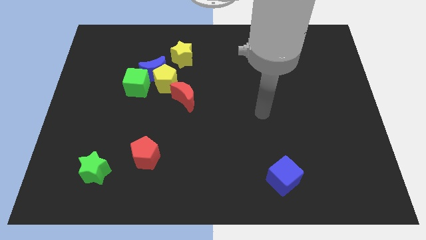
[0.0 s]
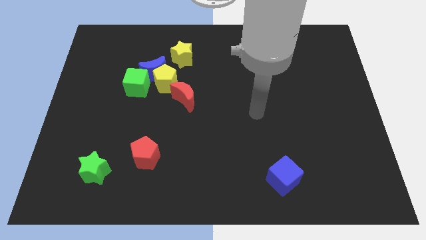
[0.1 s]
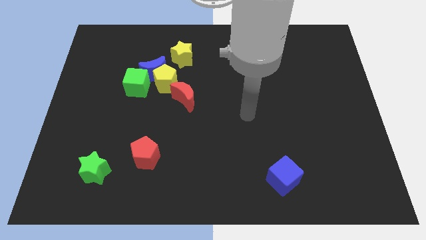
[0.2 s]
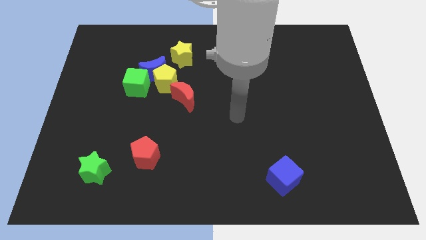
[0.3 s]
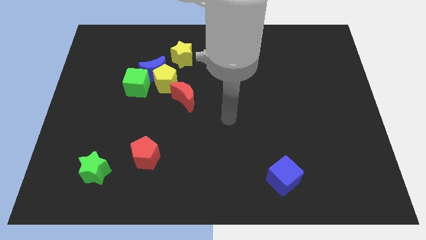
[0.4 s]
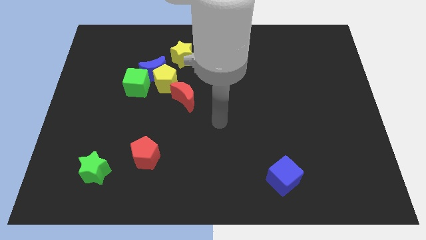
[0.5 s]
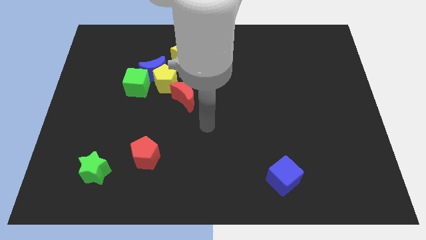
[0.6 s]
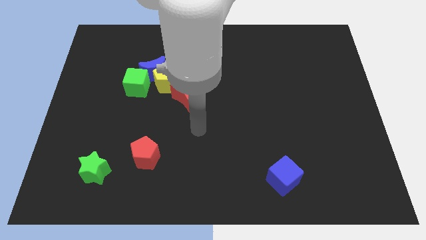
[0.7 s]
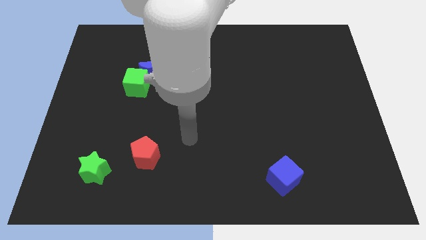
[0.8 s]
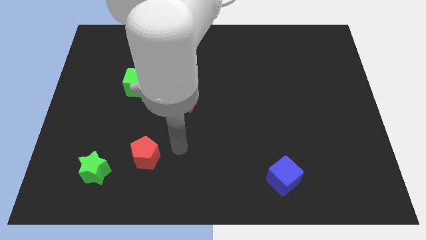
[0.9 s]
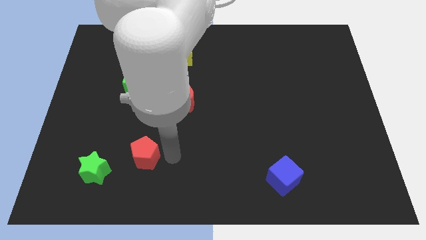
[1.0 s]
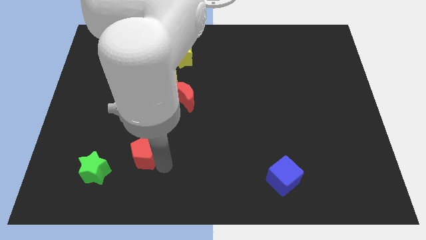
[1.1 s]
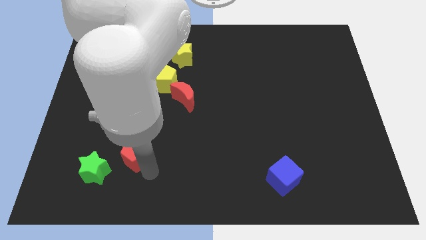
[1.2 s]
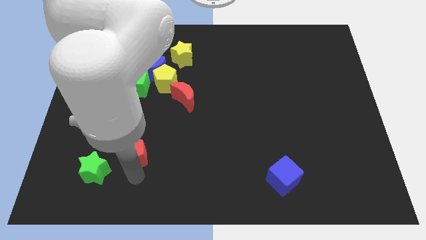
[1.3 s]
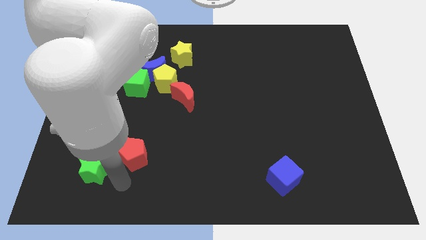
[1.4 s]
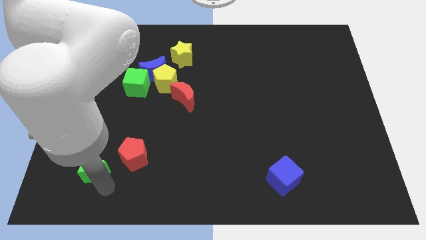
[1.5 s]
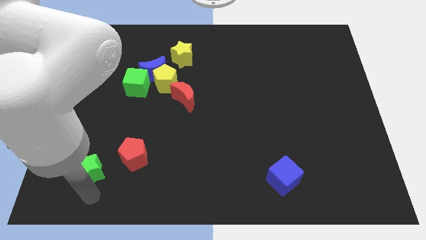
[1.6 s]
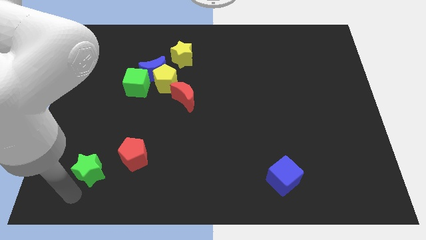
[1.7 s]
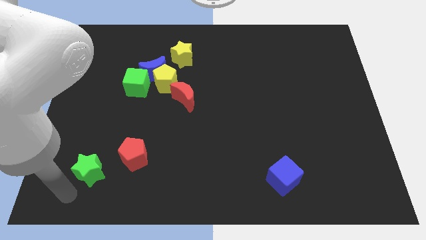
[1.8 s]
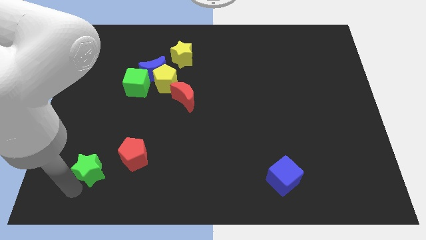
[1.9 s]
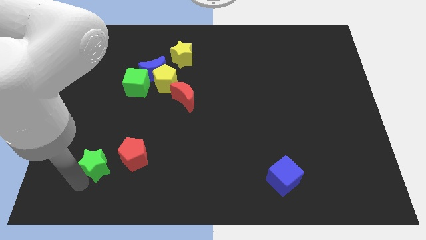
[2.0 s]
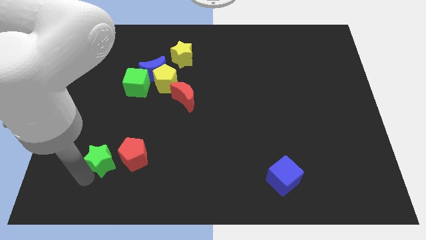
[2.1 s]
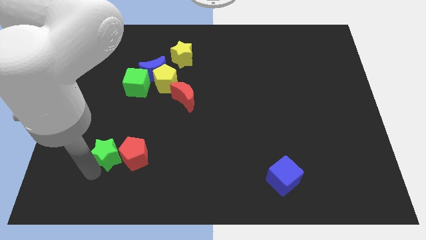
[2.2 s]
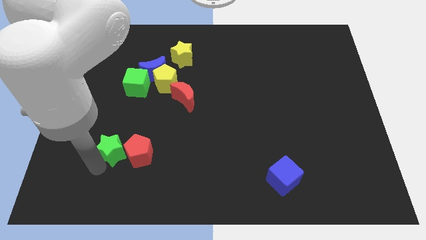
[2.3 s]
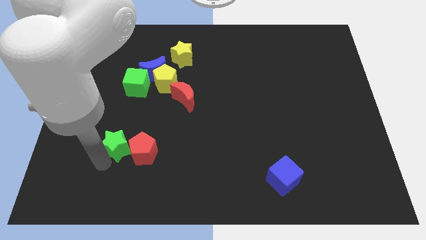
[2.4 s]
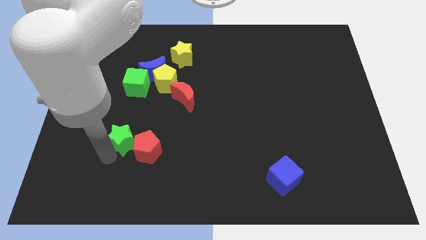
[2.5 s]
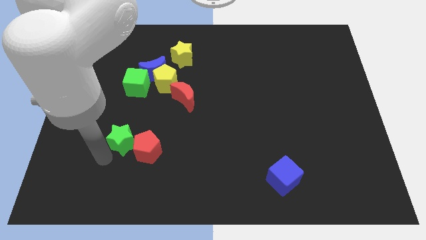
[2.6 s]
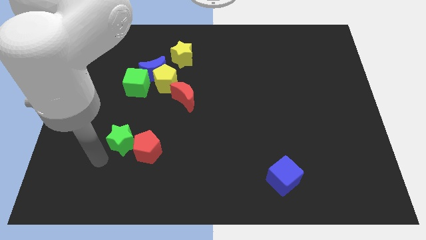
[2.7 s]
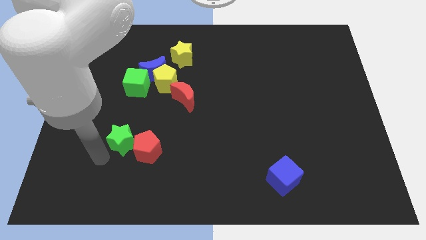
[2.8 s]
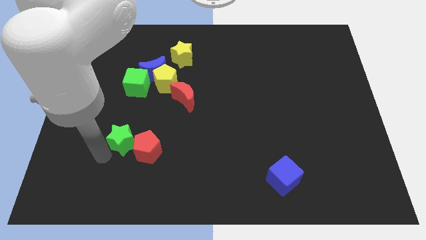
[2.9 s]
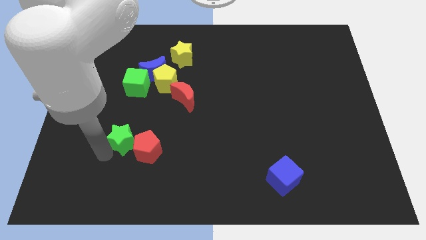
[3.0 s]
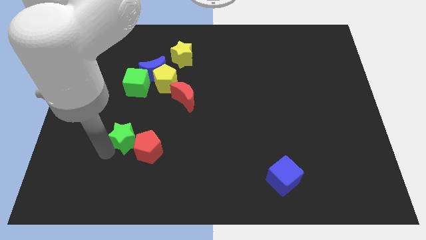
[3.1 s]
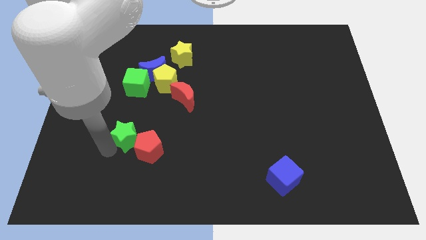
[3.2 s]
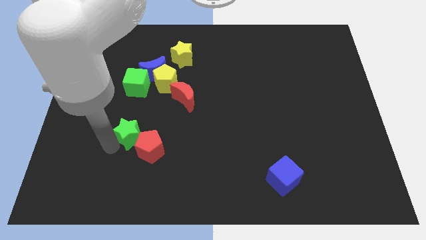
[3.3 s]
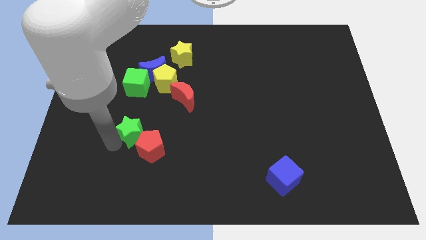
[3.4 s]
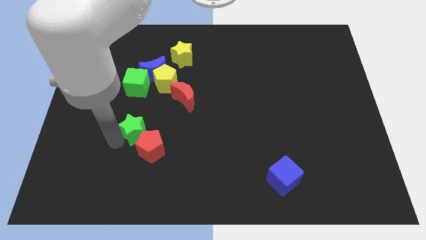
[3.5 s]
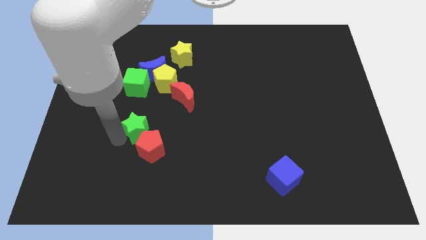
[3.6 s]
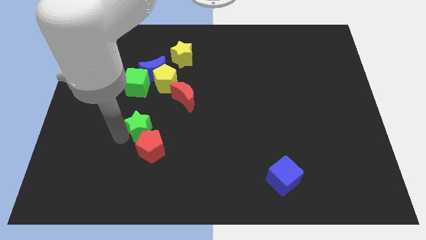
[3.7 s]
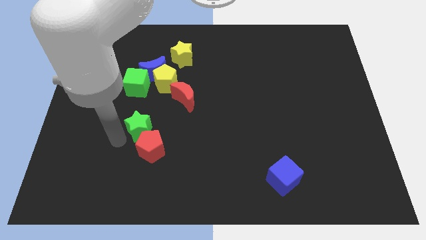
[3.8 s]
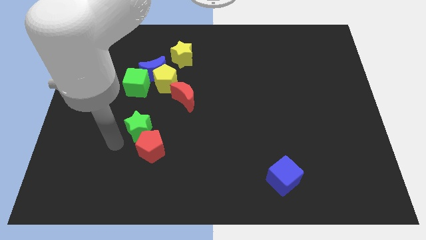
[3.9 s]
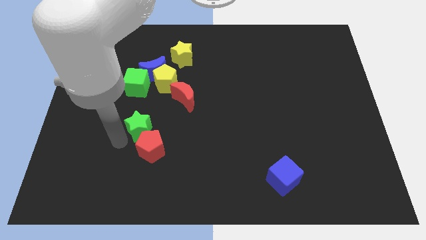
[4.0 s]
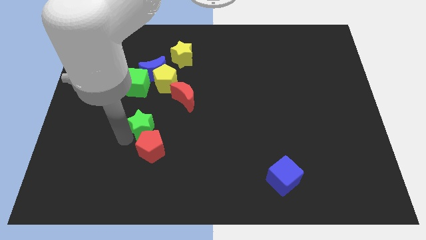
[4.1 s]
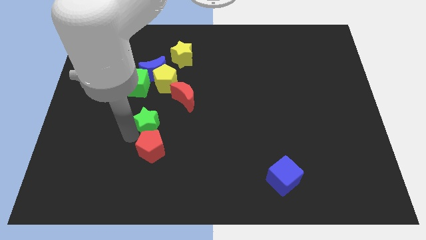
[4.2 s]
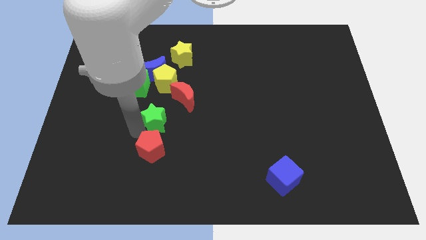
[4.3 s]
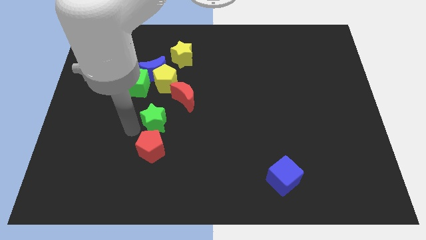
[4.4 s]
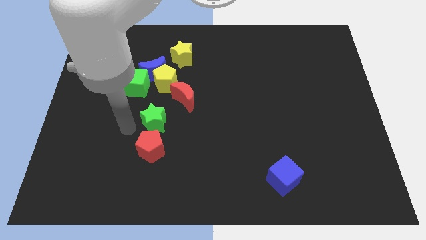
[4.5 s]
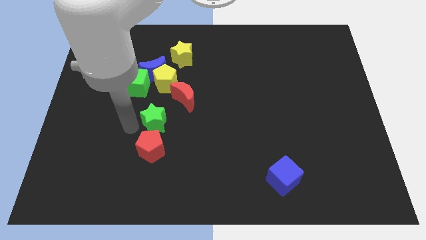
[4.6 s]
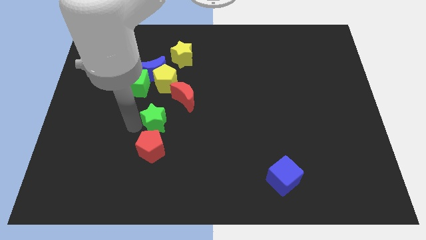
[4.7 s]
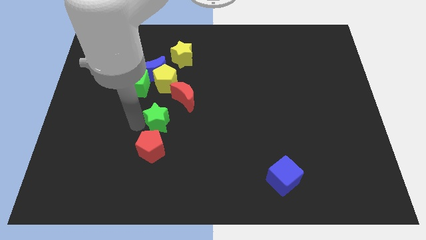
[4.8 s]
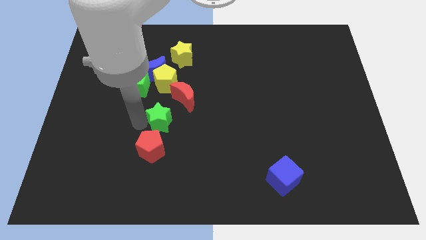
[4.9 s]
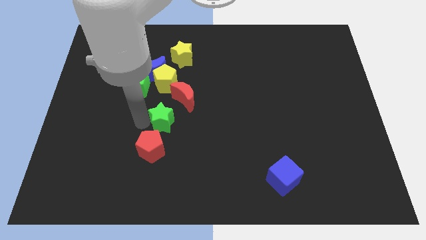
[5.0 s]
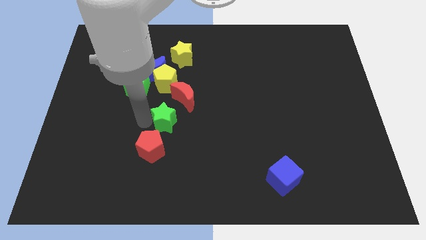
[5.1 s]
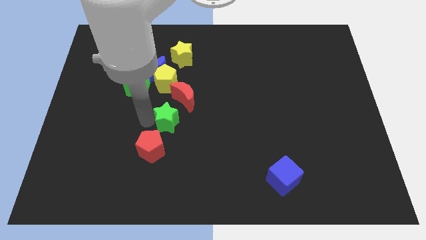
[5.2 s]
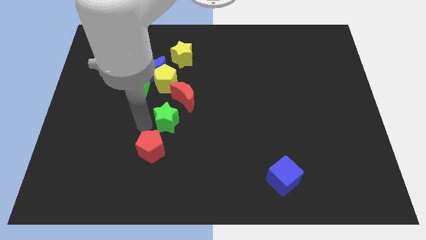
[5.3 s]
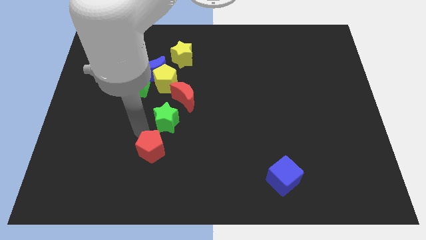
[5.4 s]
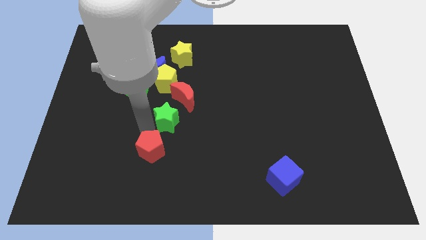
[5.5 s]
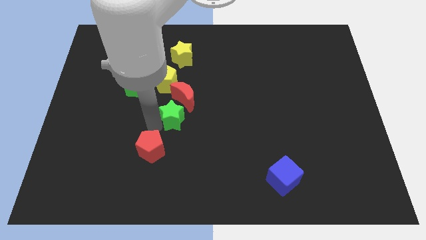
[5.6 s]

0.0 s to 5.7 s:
push the green star up and then to the right

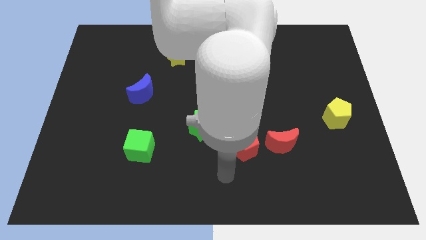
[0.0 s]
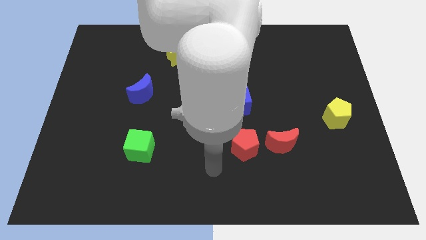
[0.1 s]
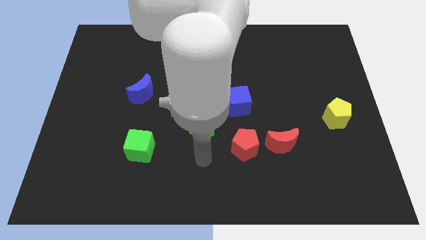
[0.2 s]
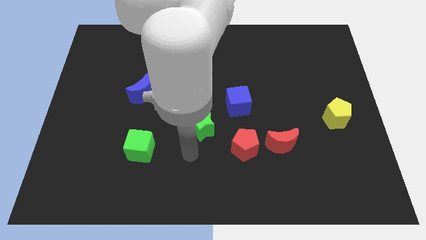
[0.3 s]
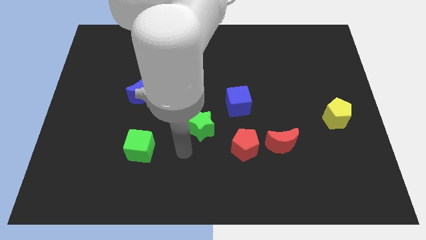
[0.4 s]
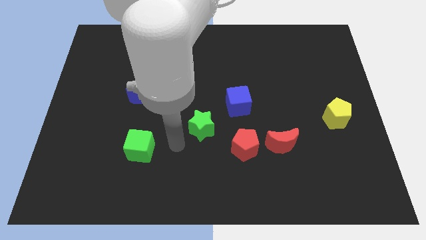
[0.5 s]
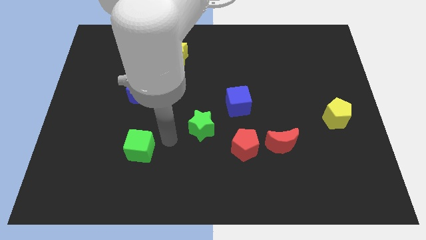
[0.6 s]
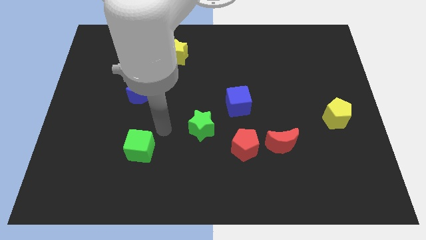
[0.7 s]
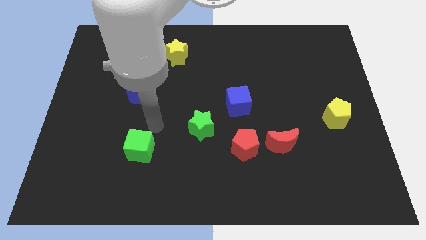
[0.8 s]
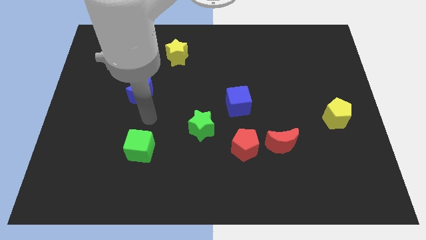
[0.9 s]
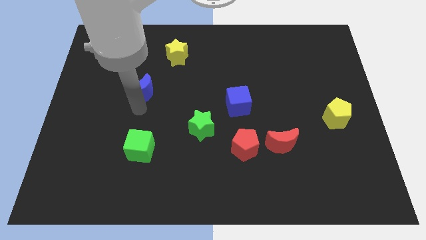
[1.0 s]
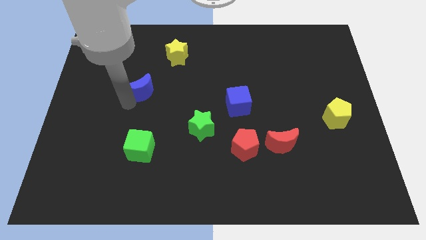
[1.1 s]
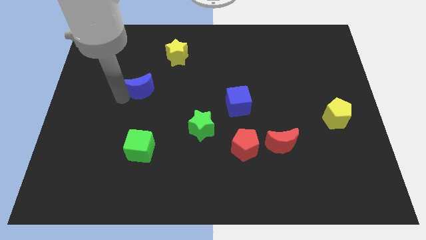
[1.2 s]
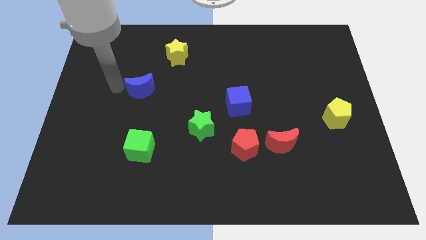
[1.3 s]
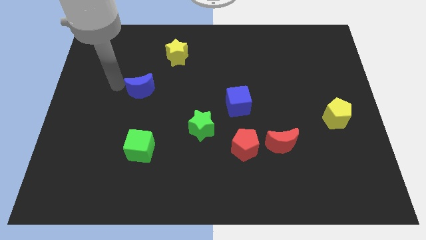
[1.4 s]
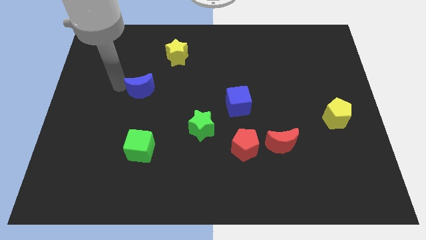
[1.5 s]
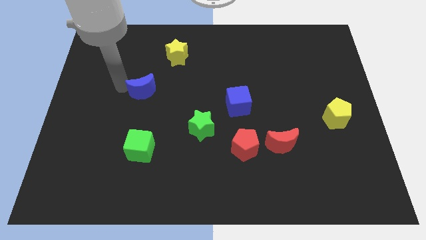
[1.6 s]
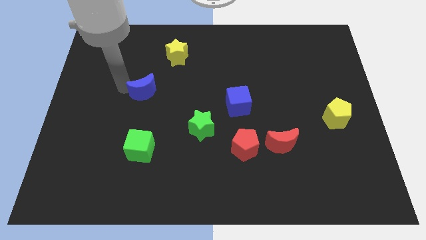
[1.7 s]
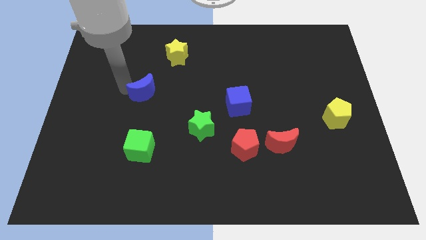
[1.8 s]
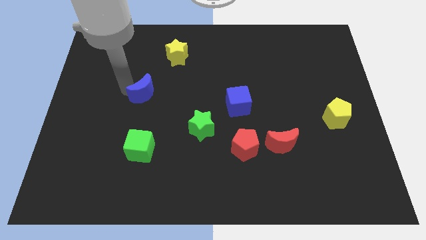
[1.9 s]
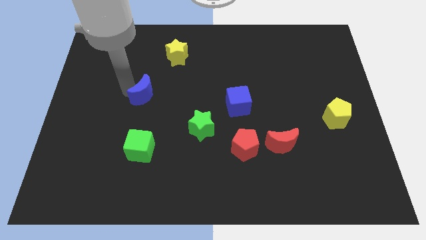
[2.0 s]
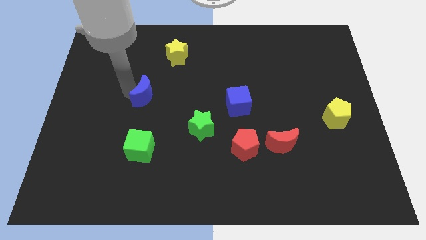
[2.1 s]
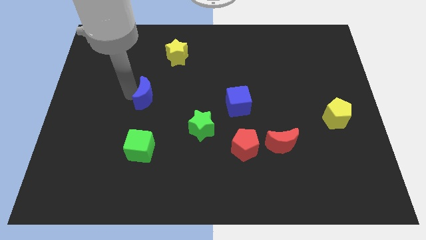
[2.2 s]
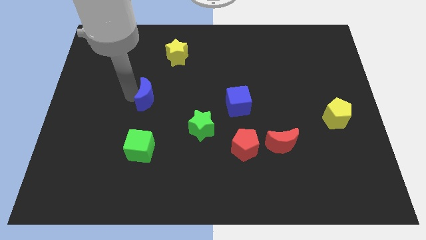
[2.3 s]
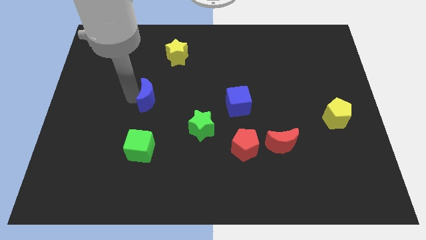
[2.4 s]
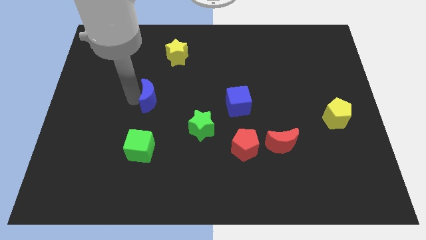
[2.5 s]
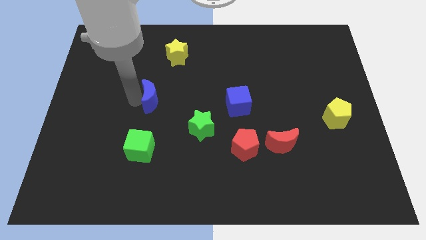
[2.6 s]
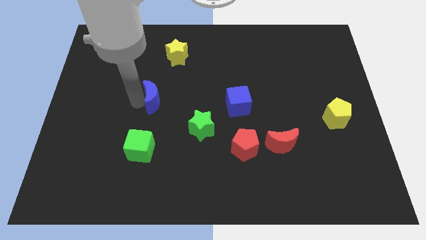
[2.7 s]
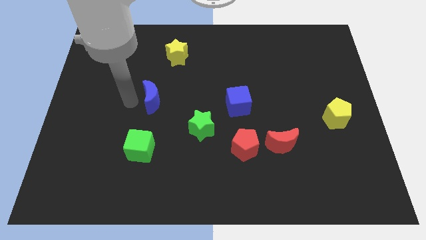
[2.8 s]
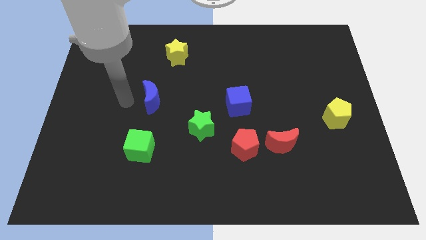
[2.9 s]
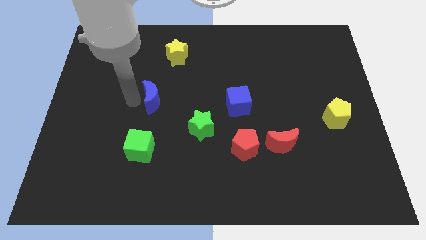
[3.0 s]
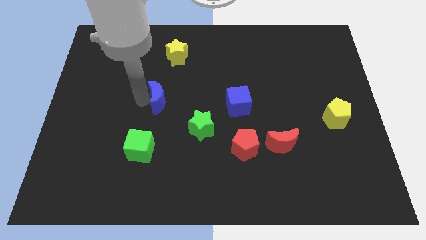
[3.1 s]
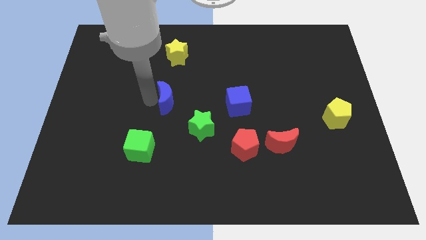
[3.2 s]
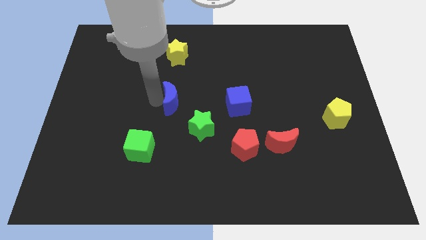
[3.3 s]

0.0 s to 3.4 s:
slightly push the blue moon right
